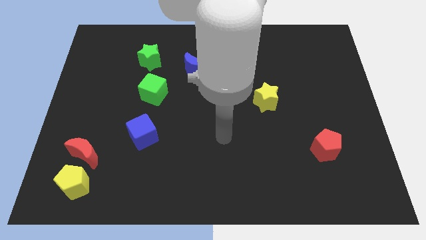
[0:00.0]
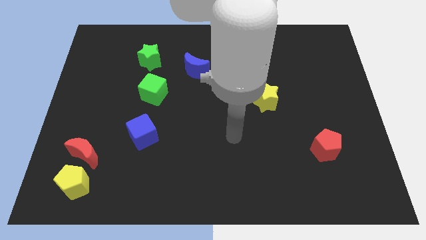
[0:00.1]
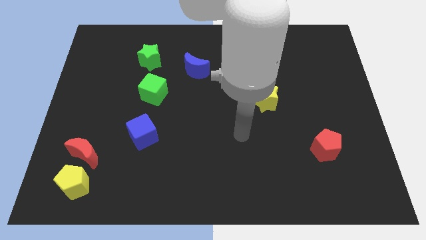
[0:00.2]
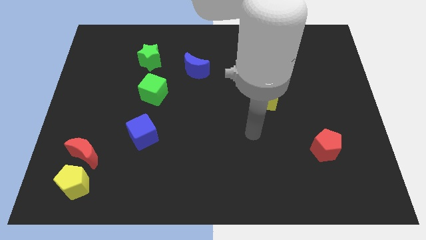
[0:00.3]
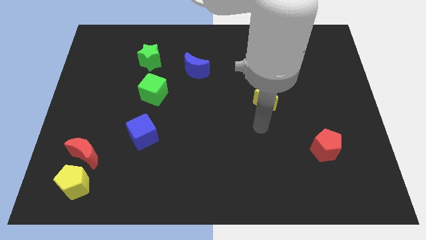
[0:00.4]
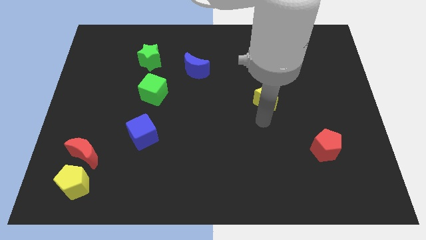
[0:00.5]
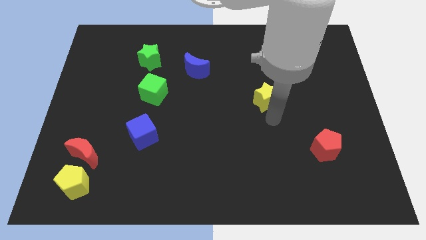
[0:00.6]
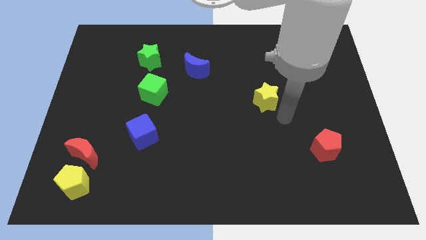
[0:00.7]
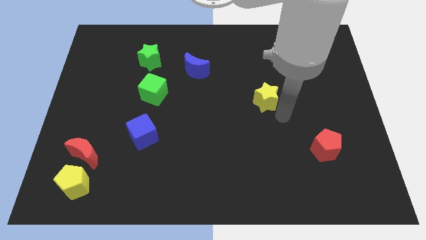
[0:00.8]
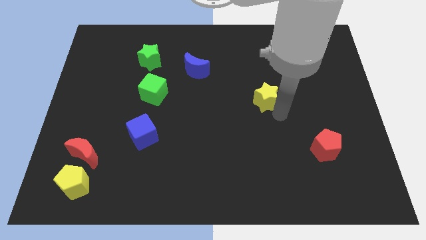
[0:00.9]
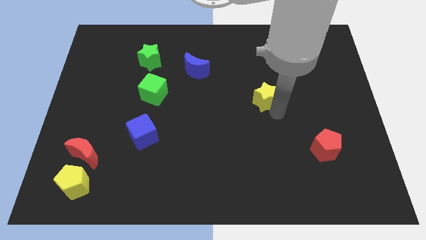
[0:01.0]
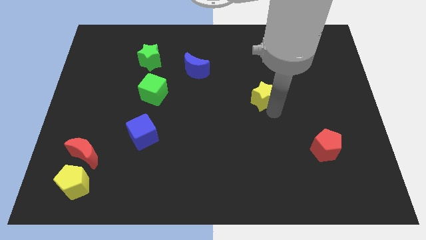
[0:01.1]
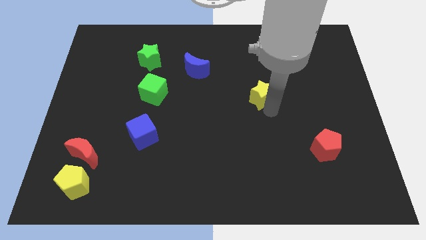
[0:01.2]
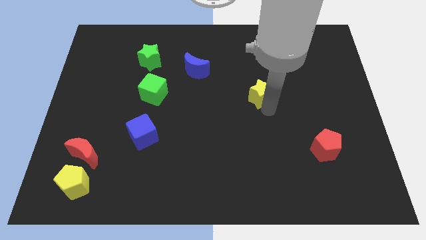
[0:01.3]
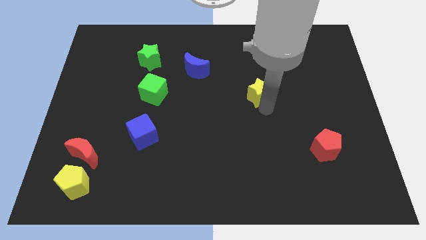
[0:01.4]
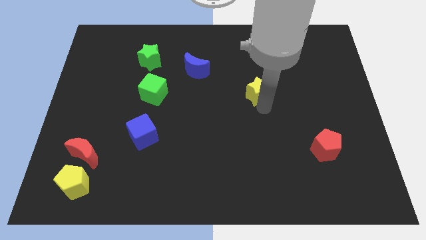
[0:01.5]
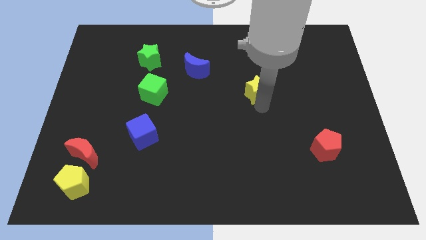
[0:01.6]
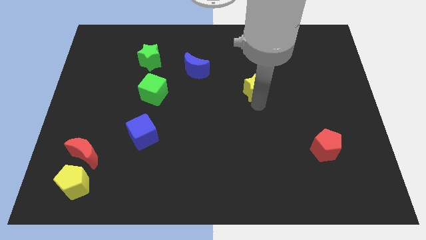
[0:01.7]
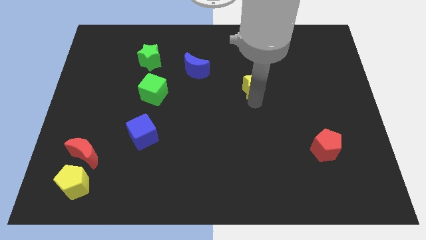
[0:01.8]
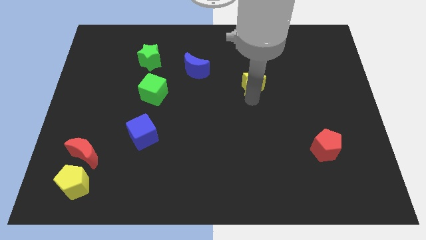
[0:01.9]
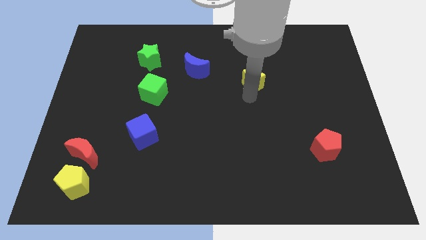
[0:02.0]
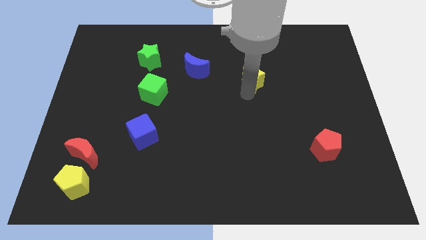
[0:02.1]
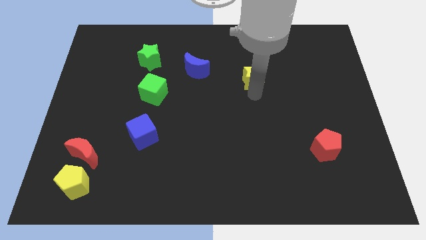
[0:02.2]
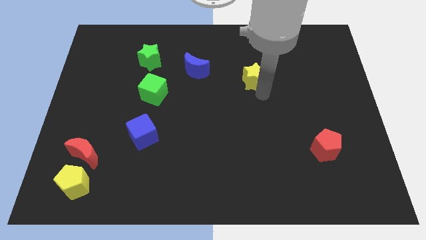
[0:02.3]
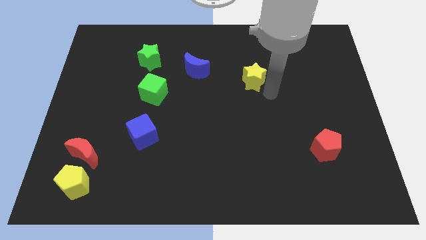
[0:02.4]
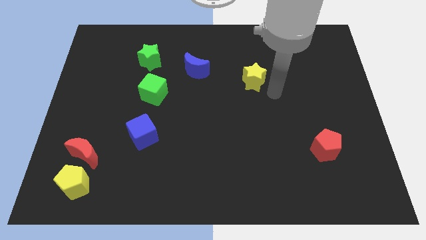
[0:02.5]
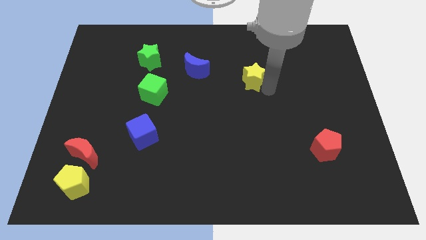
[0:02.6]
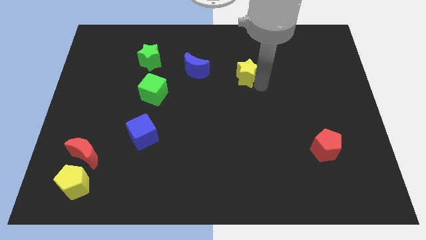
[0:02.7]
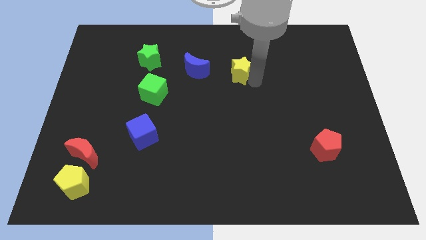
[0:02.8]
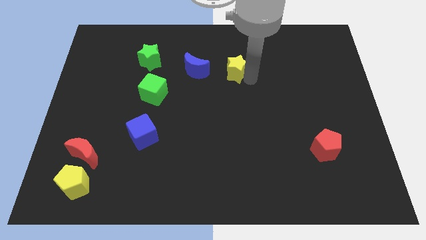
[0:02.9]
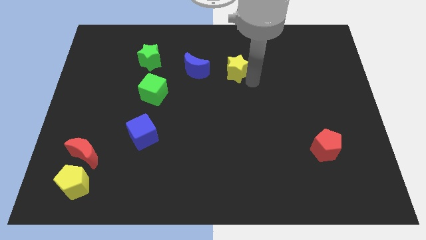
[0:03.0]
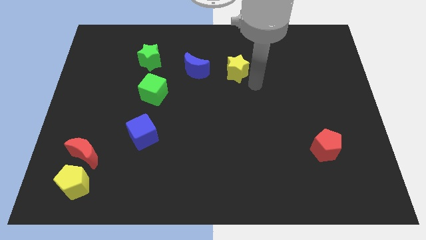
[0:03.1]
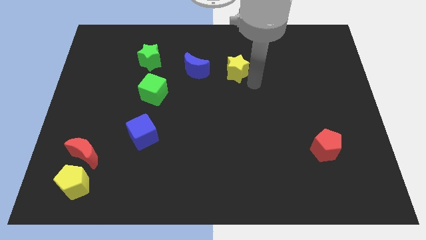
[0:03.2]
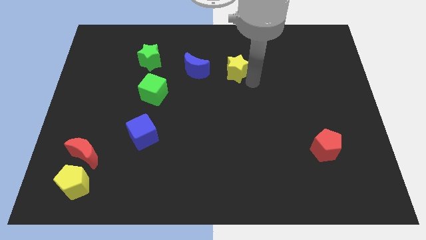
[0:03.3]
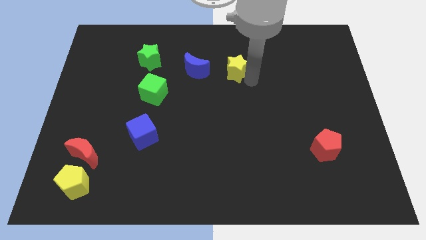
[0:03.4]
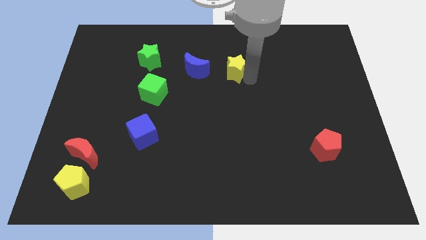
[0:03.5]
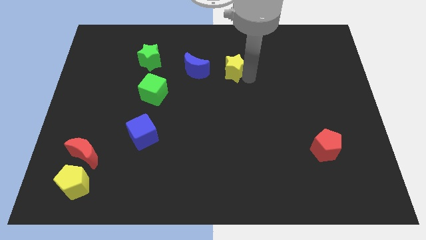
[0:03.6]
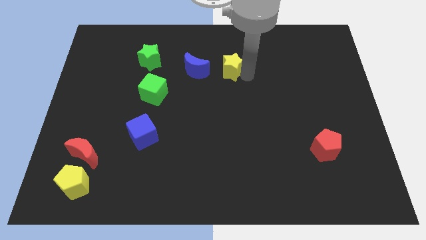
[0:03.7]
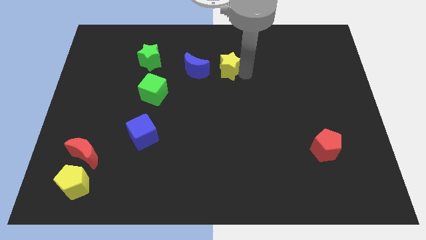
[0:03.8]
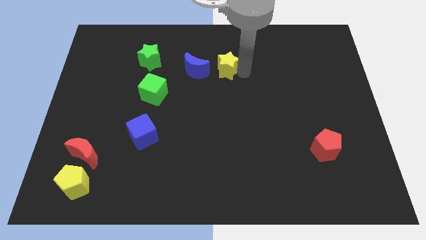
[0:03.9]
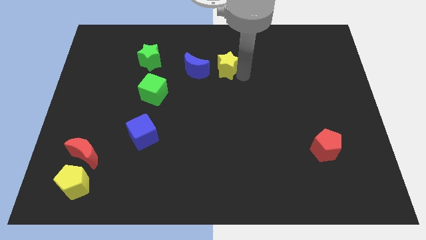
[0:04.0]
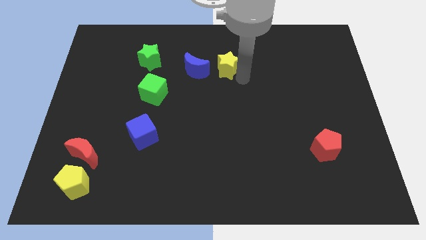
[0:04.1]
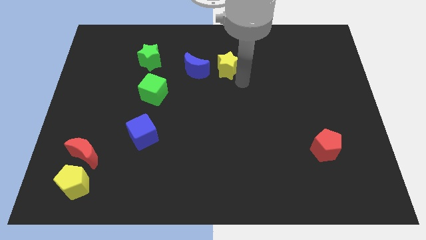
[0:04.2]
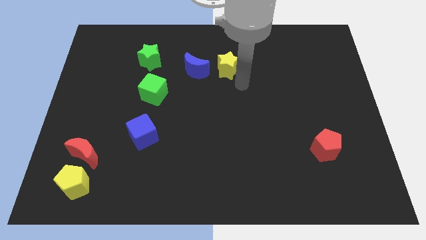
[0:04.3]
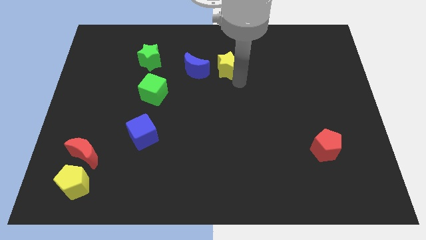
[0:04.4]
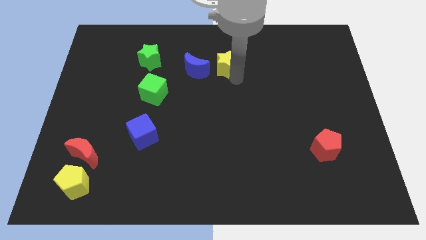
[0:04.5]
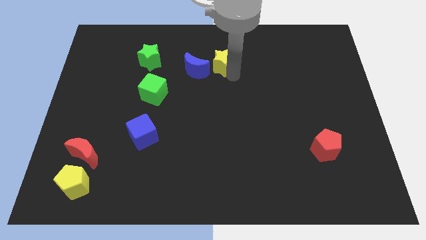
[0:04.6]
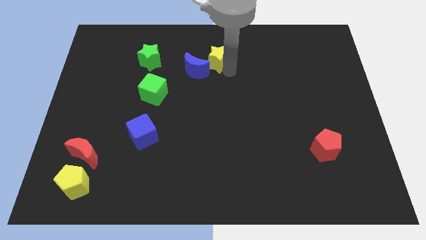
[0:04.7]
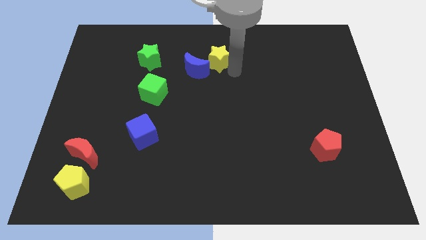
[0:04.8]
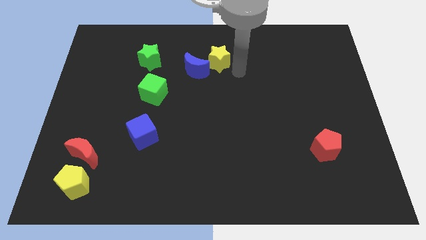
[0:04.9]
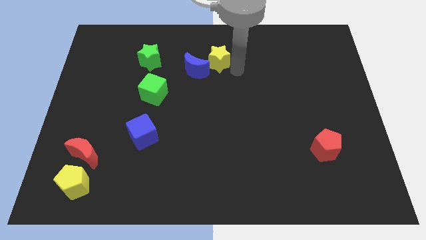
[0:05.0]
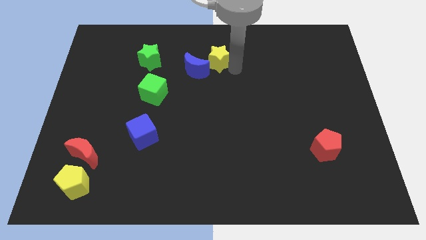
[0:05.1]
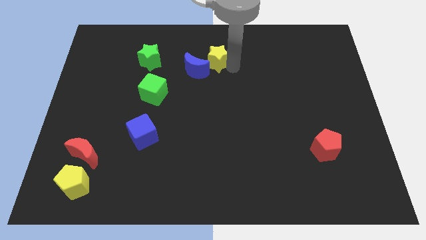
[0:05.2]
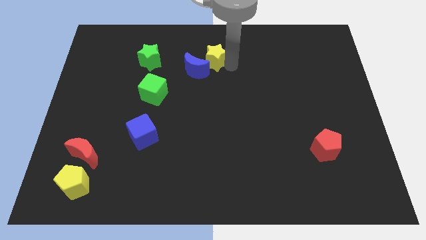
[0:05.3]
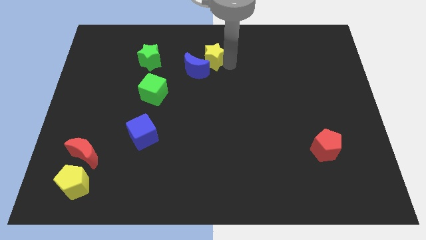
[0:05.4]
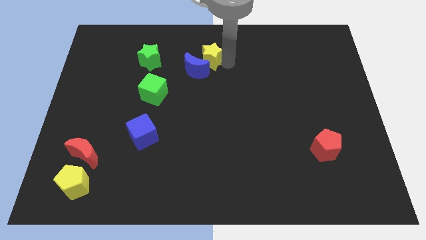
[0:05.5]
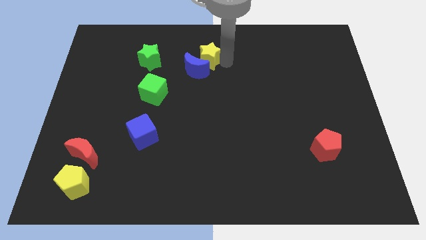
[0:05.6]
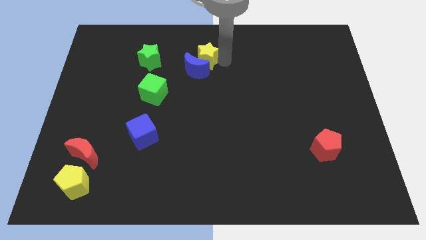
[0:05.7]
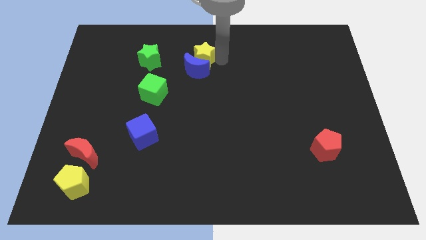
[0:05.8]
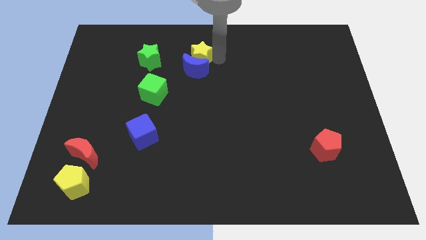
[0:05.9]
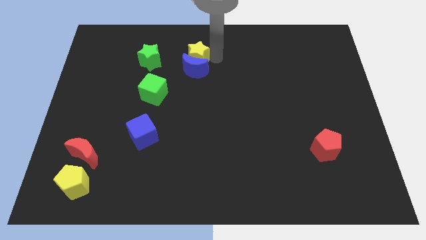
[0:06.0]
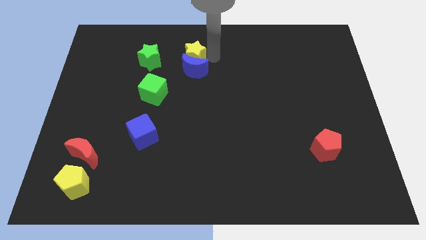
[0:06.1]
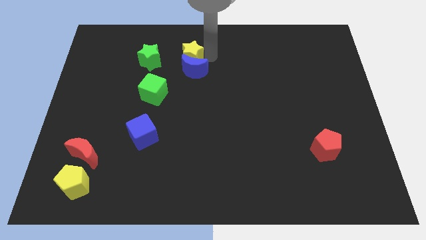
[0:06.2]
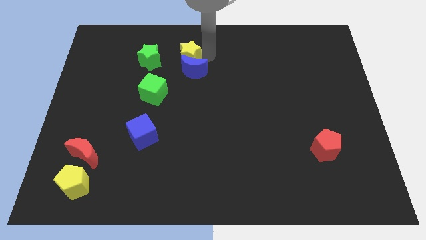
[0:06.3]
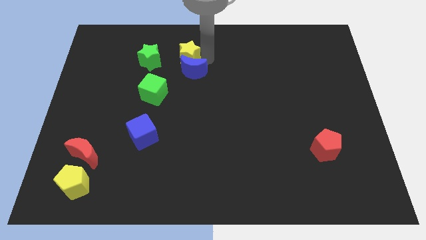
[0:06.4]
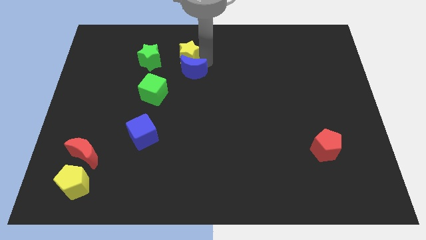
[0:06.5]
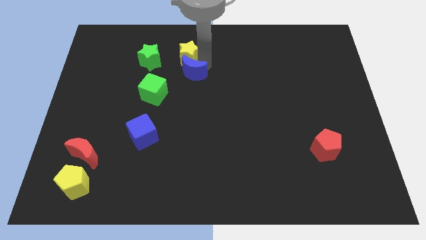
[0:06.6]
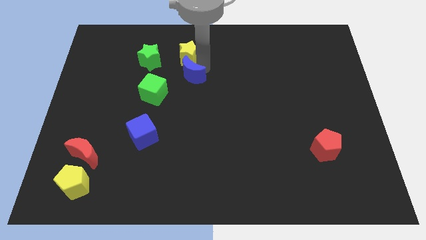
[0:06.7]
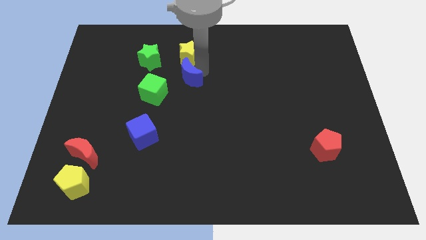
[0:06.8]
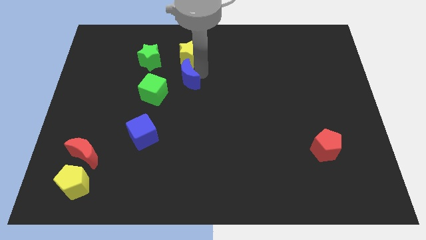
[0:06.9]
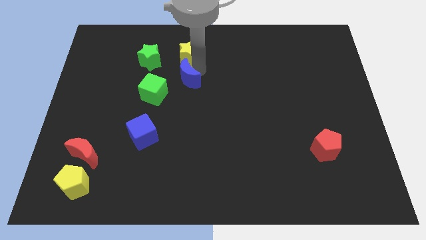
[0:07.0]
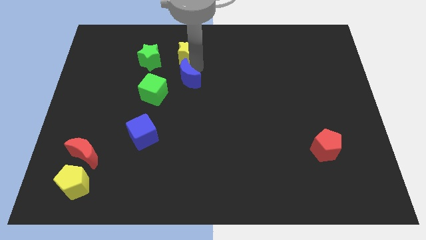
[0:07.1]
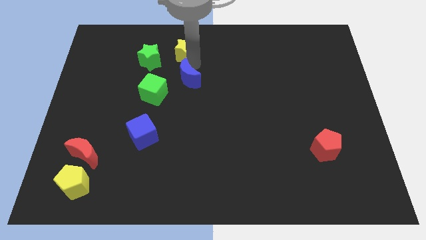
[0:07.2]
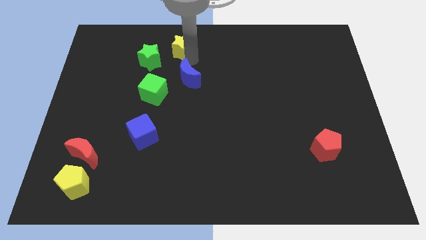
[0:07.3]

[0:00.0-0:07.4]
move the yellow star to the top side
